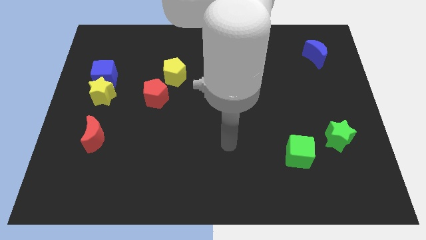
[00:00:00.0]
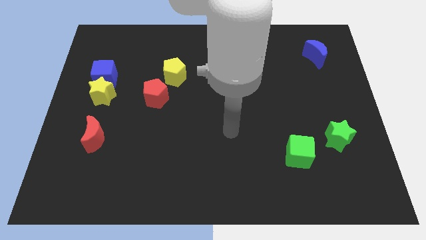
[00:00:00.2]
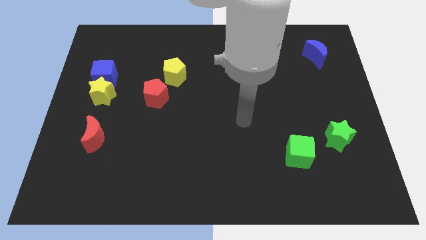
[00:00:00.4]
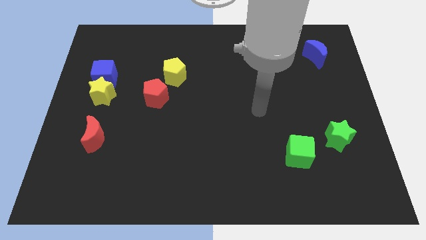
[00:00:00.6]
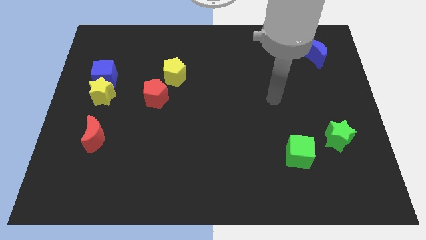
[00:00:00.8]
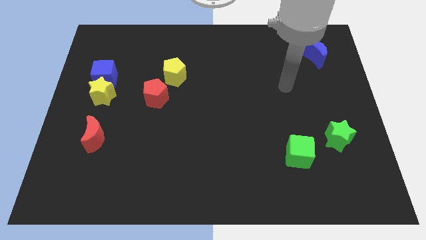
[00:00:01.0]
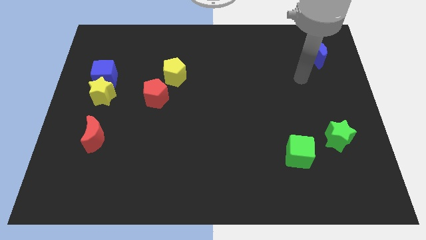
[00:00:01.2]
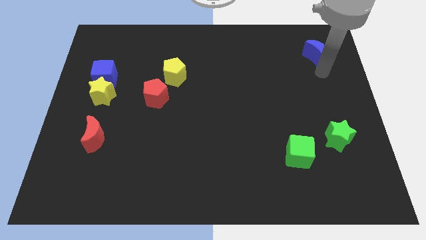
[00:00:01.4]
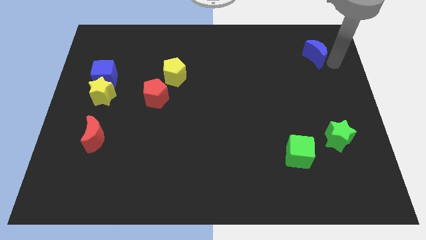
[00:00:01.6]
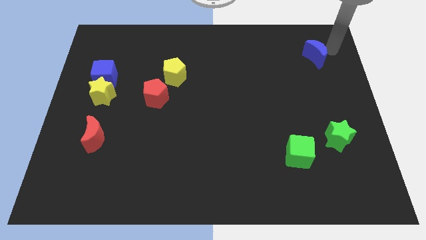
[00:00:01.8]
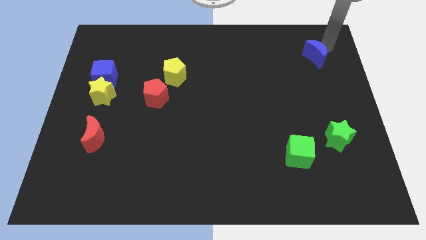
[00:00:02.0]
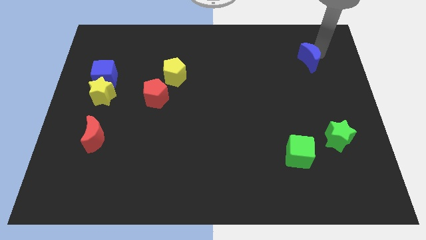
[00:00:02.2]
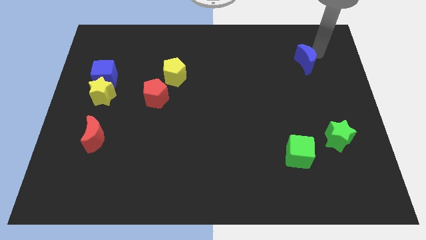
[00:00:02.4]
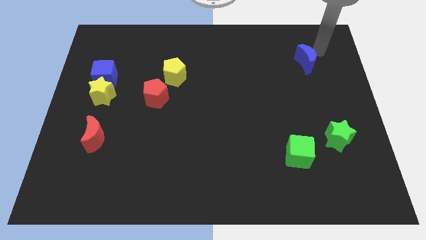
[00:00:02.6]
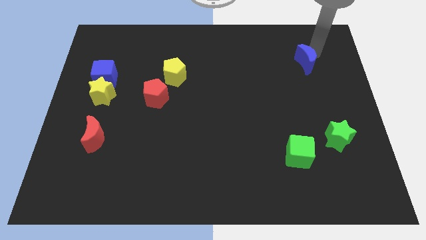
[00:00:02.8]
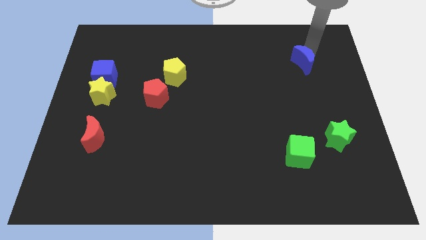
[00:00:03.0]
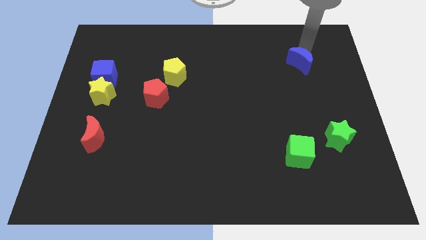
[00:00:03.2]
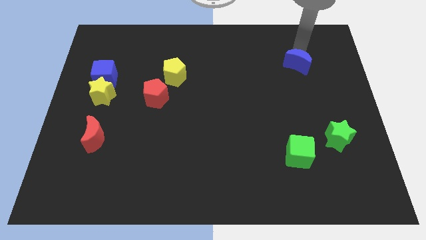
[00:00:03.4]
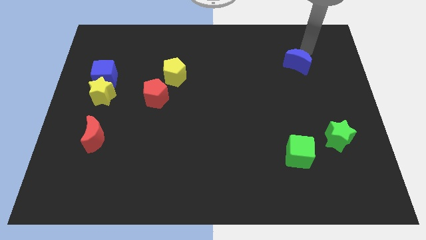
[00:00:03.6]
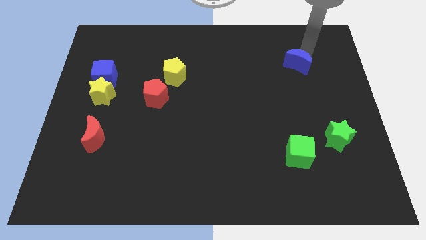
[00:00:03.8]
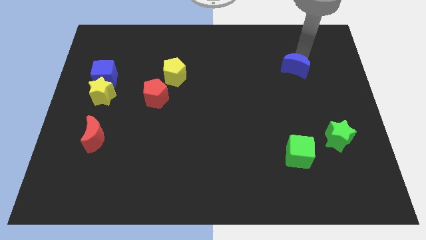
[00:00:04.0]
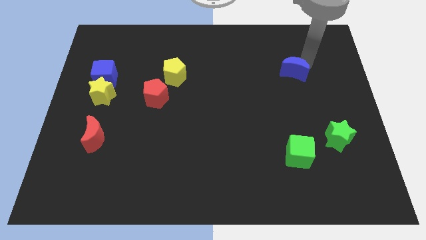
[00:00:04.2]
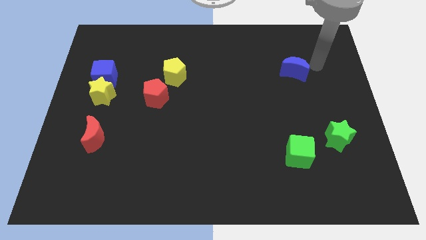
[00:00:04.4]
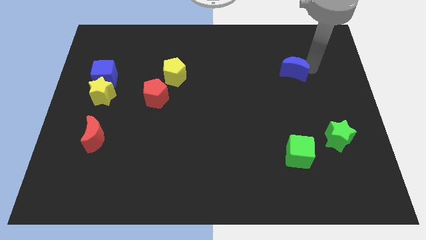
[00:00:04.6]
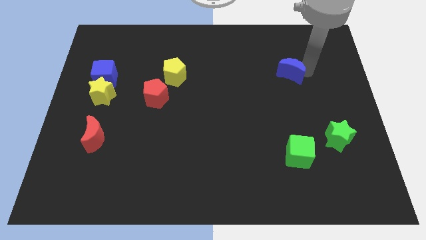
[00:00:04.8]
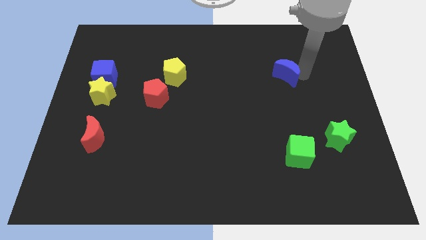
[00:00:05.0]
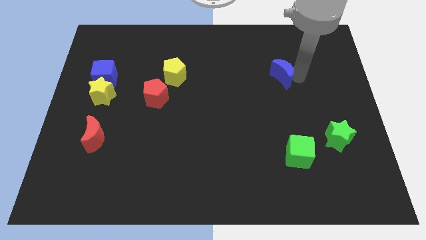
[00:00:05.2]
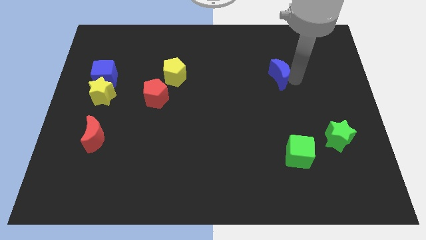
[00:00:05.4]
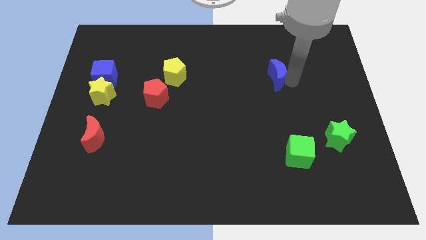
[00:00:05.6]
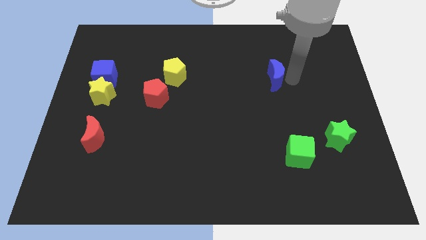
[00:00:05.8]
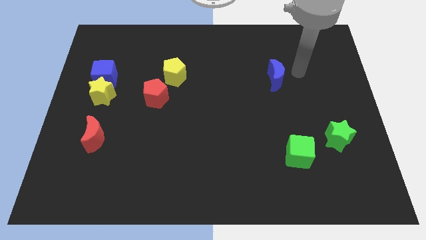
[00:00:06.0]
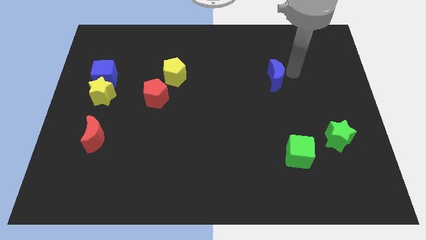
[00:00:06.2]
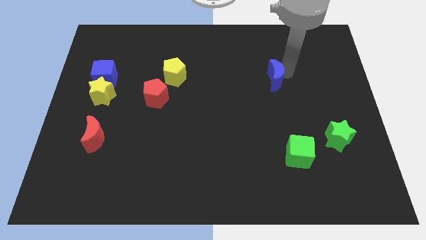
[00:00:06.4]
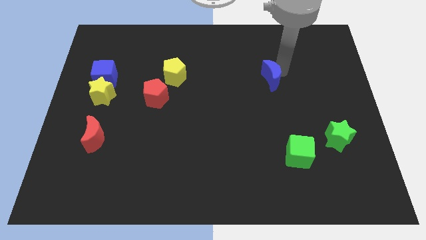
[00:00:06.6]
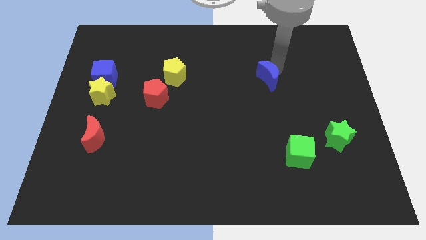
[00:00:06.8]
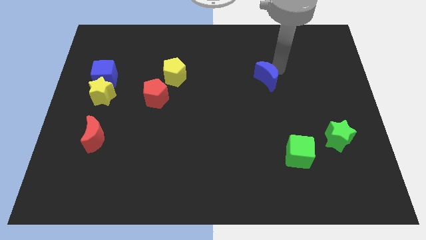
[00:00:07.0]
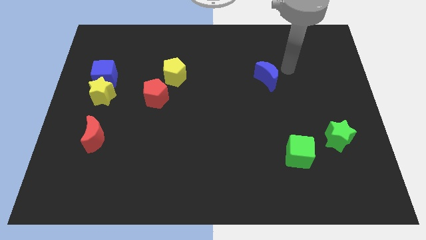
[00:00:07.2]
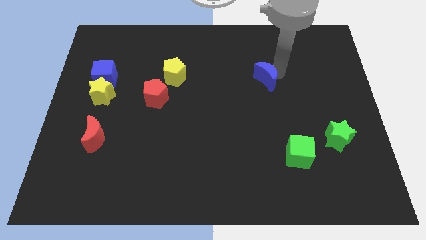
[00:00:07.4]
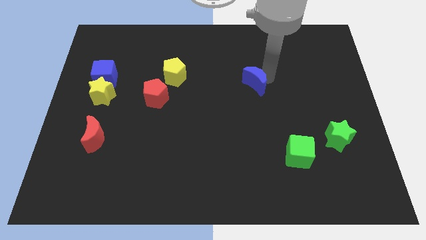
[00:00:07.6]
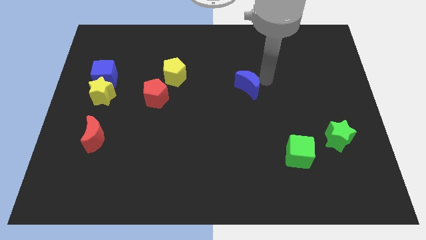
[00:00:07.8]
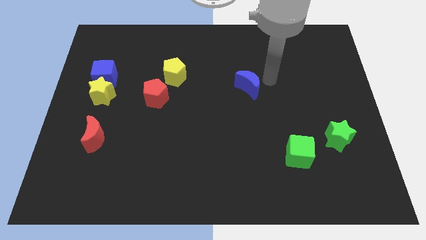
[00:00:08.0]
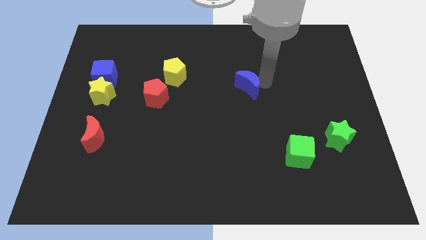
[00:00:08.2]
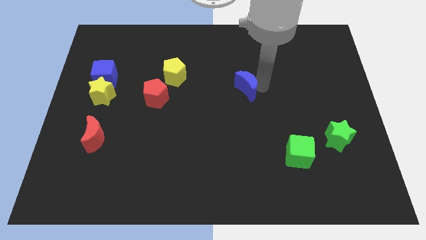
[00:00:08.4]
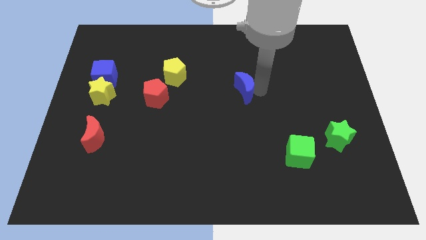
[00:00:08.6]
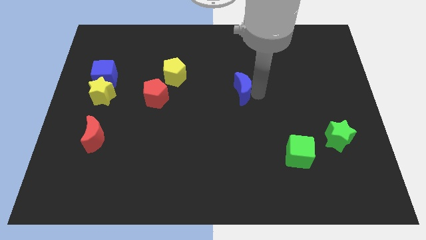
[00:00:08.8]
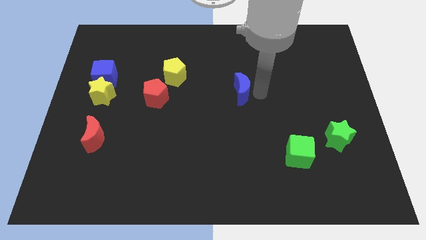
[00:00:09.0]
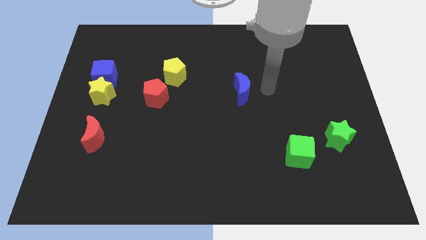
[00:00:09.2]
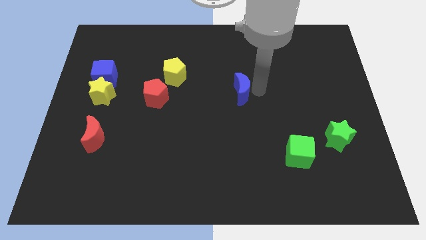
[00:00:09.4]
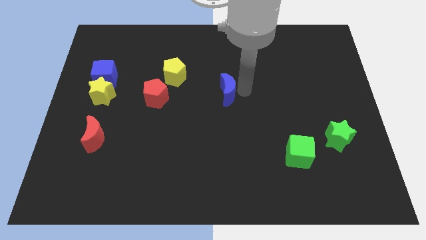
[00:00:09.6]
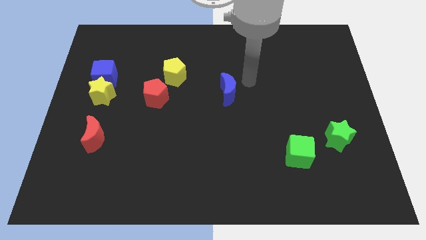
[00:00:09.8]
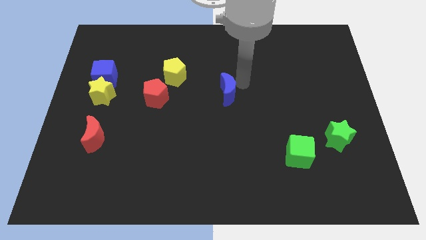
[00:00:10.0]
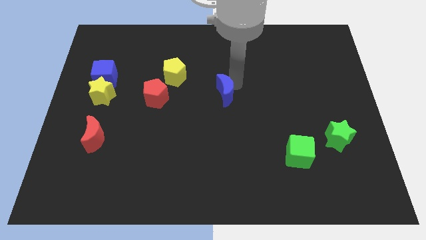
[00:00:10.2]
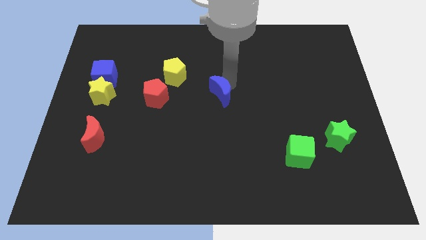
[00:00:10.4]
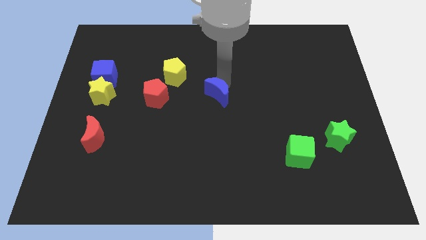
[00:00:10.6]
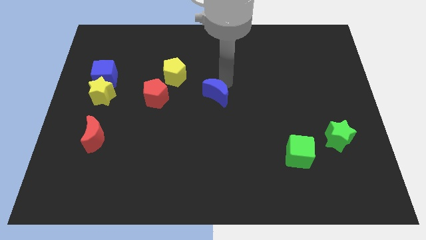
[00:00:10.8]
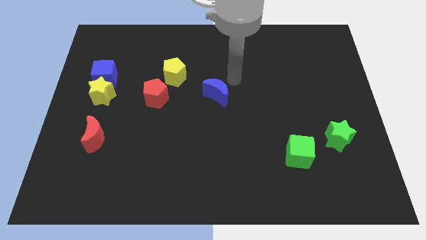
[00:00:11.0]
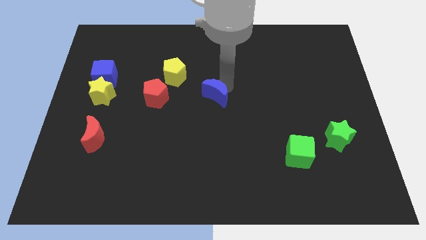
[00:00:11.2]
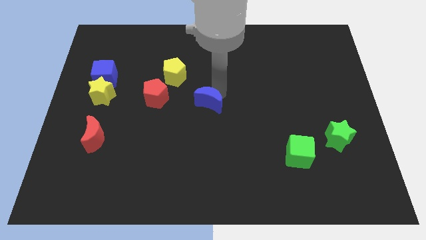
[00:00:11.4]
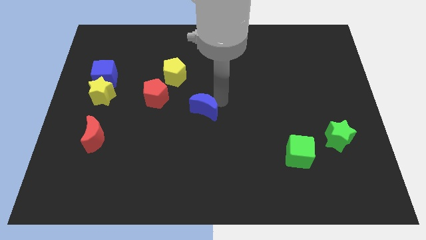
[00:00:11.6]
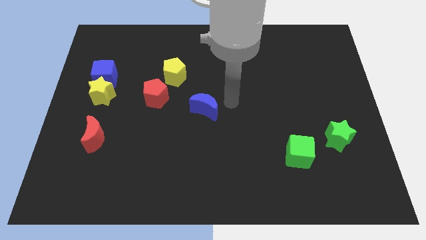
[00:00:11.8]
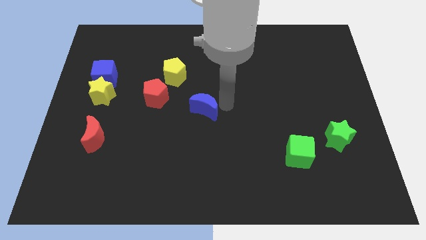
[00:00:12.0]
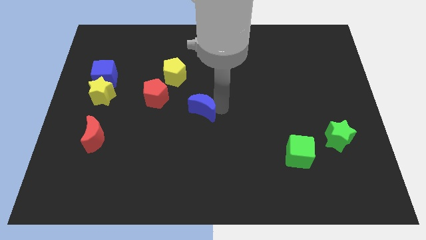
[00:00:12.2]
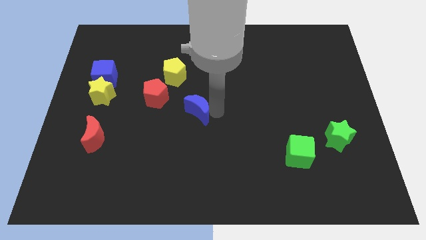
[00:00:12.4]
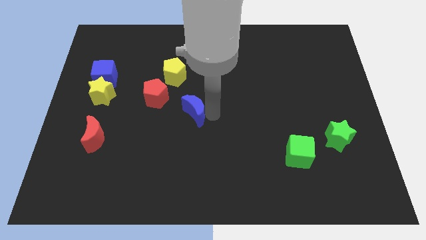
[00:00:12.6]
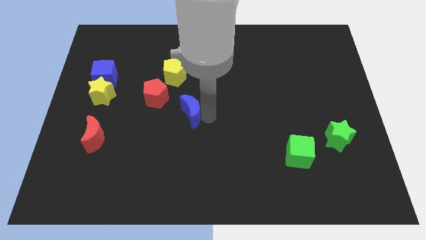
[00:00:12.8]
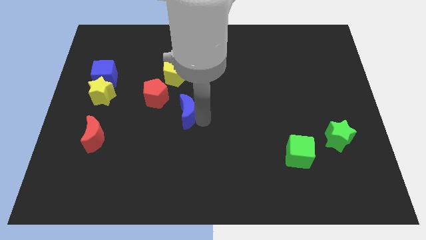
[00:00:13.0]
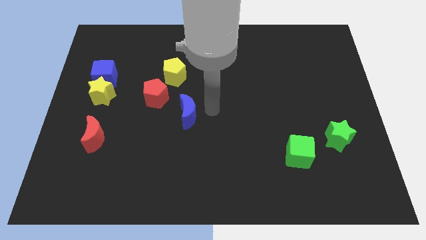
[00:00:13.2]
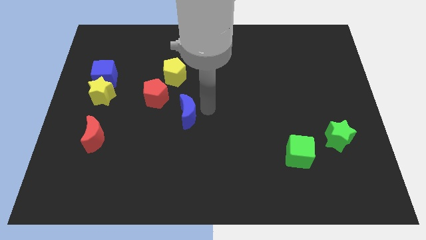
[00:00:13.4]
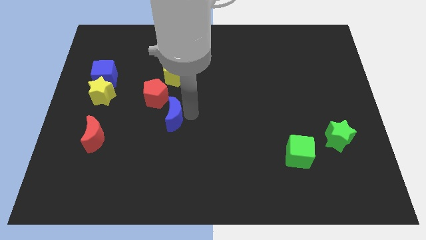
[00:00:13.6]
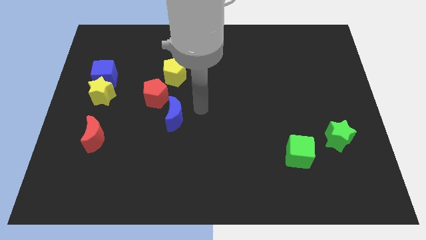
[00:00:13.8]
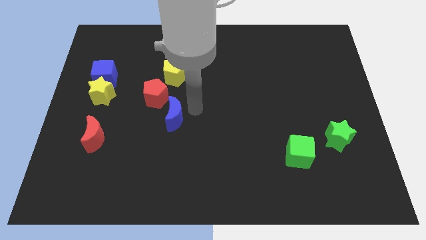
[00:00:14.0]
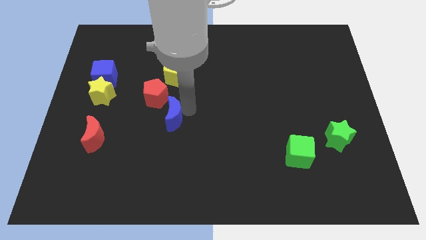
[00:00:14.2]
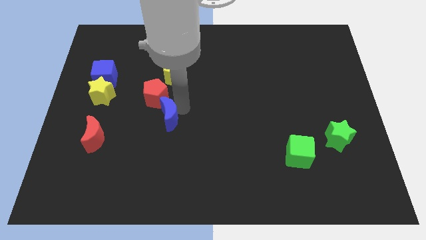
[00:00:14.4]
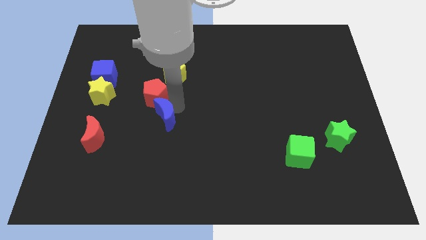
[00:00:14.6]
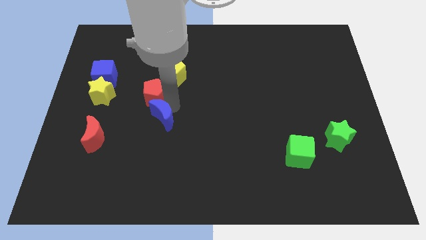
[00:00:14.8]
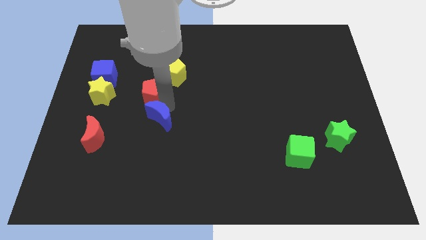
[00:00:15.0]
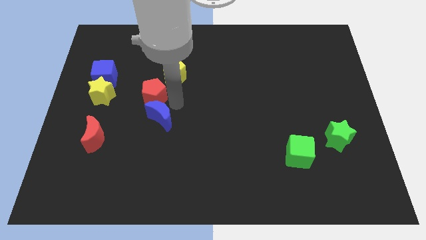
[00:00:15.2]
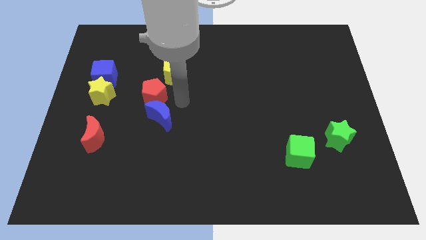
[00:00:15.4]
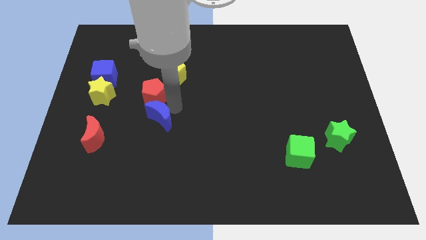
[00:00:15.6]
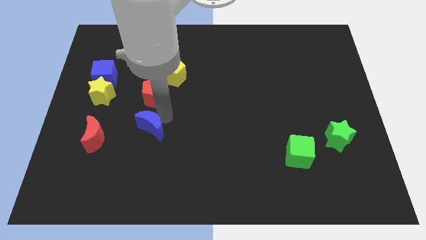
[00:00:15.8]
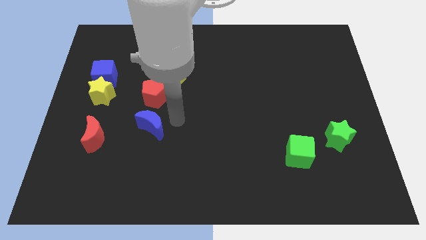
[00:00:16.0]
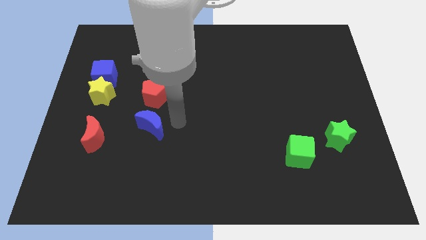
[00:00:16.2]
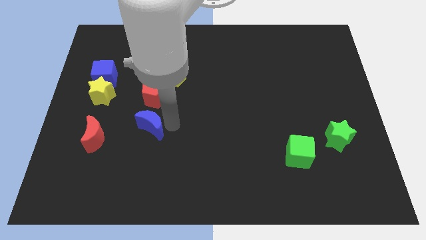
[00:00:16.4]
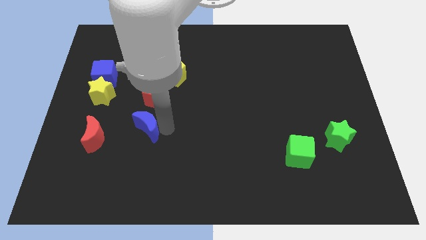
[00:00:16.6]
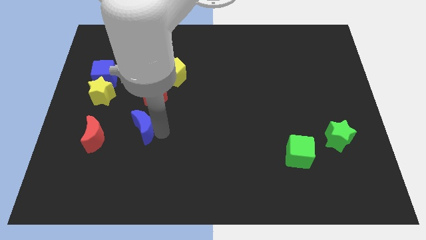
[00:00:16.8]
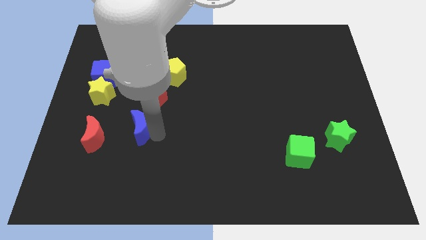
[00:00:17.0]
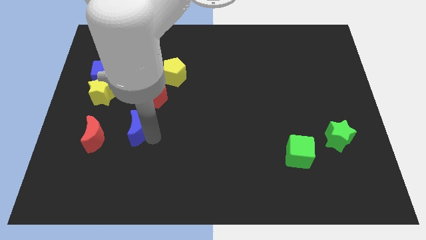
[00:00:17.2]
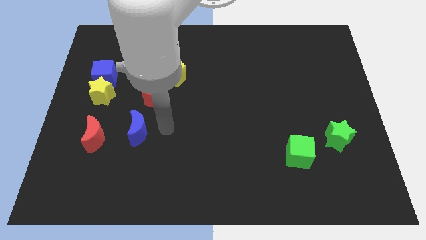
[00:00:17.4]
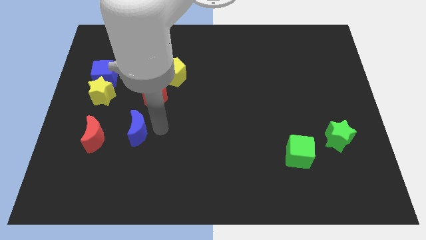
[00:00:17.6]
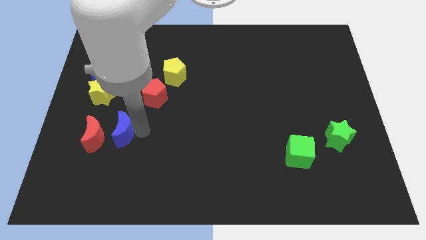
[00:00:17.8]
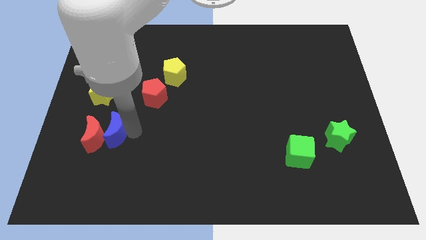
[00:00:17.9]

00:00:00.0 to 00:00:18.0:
move the blue moon to the red moon
